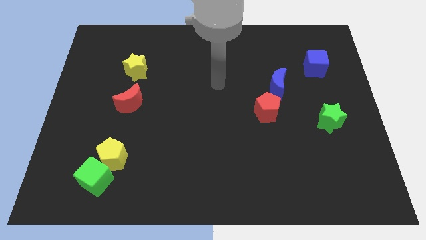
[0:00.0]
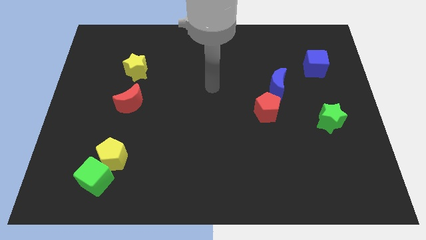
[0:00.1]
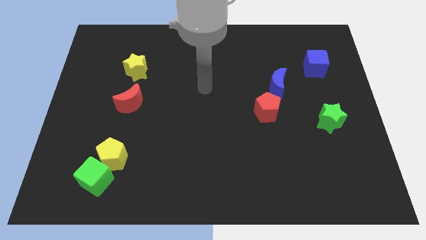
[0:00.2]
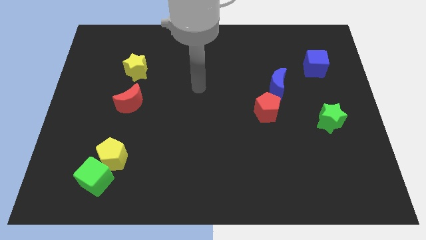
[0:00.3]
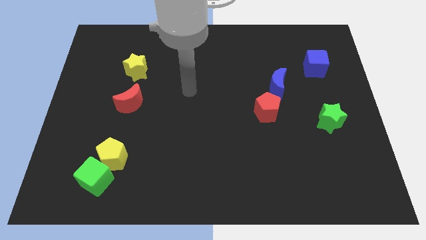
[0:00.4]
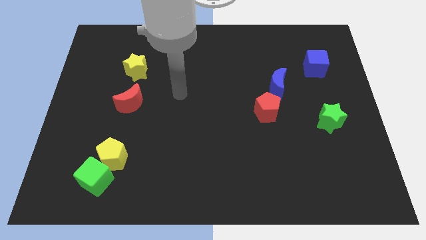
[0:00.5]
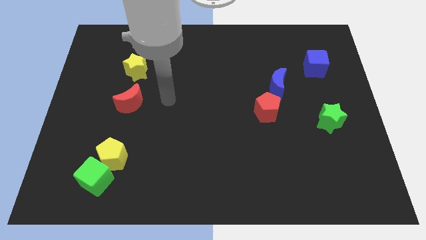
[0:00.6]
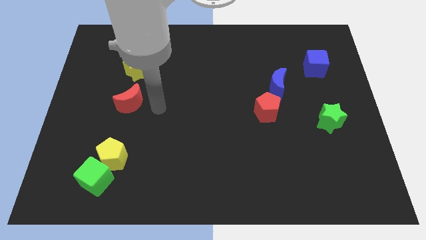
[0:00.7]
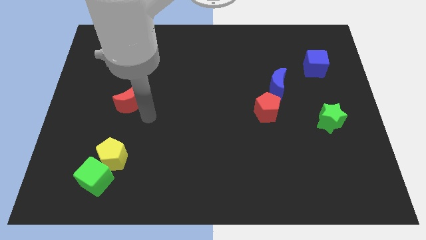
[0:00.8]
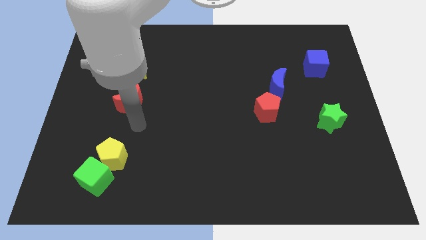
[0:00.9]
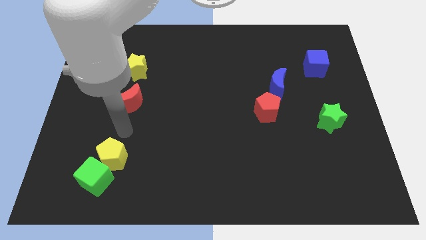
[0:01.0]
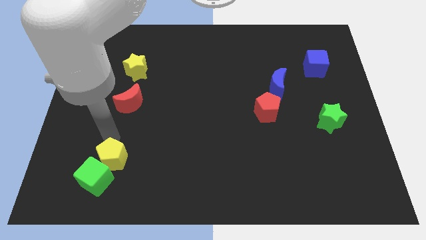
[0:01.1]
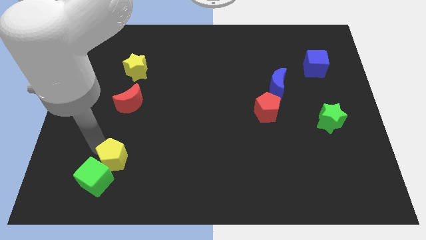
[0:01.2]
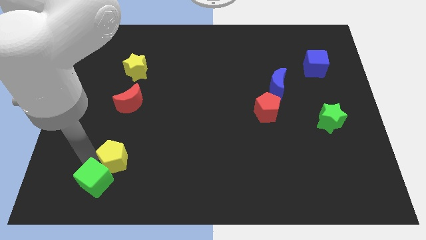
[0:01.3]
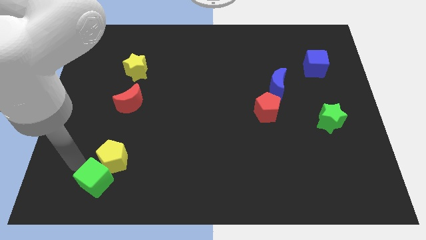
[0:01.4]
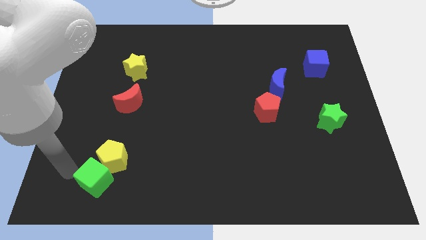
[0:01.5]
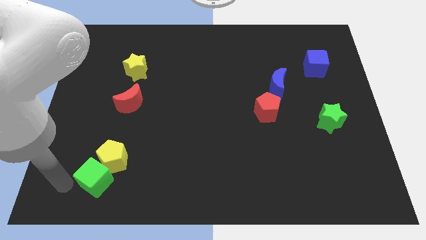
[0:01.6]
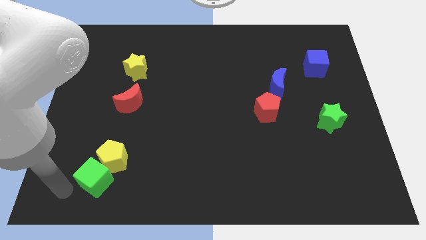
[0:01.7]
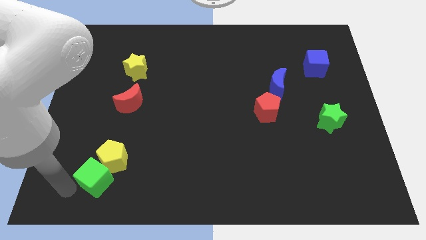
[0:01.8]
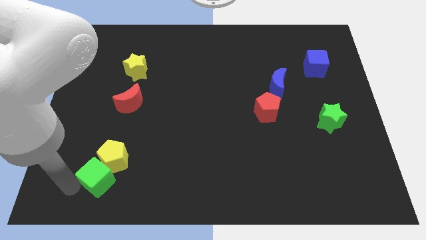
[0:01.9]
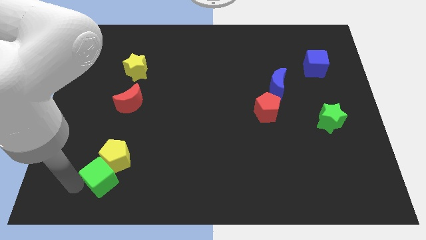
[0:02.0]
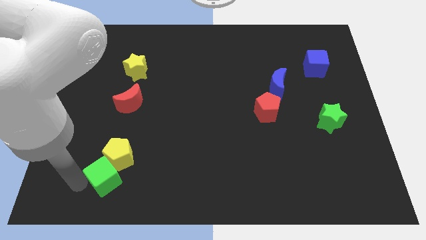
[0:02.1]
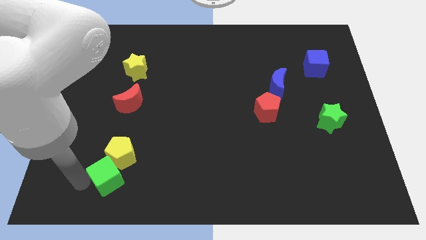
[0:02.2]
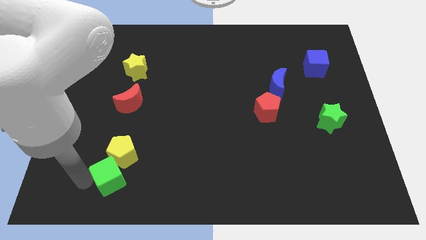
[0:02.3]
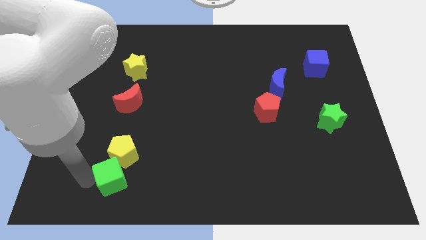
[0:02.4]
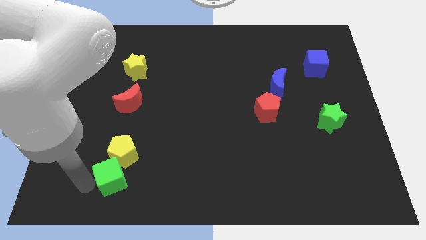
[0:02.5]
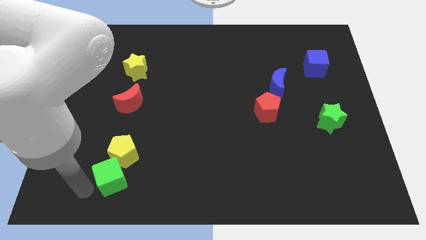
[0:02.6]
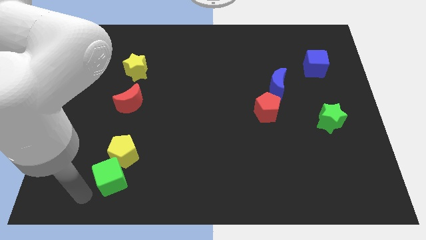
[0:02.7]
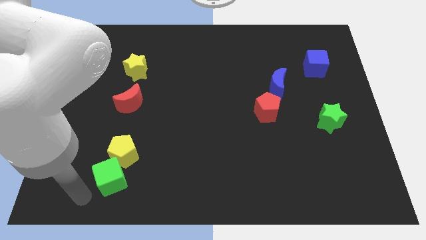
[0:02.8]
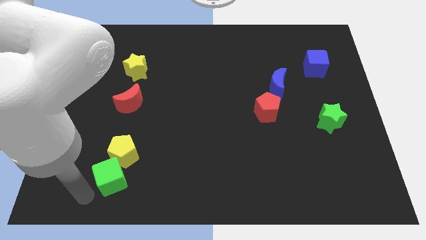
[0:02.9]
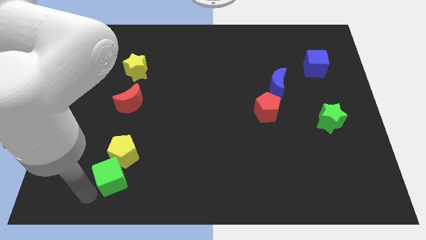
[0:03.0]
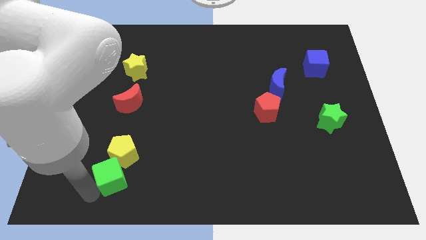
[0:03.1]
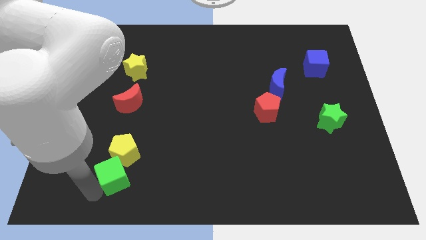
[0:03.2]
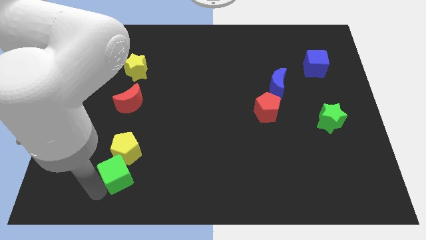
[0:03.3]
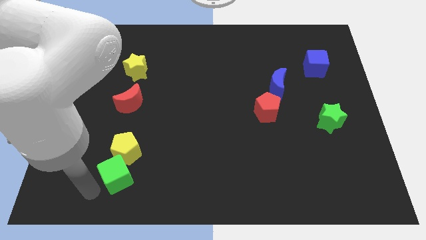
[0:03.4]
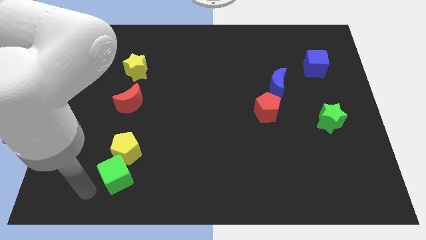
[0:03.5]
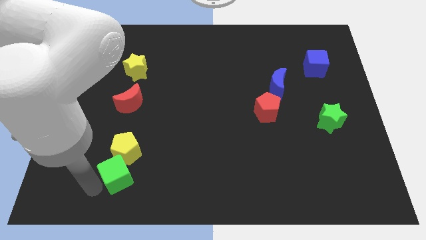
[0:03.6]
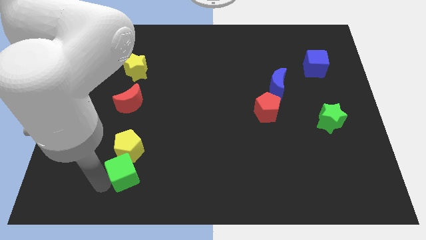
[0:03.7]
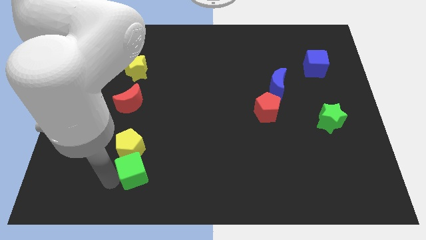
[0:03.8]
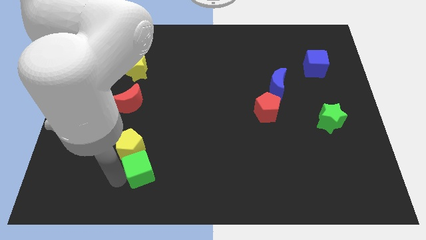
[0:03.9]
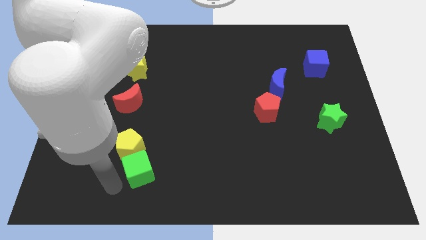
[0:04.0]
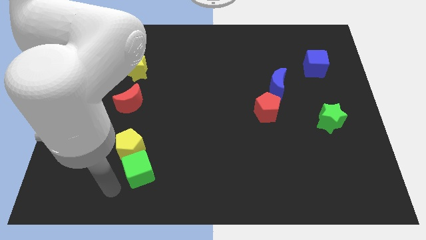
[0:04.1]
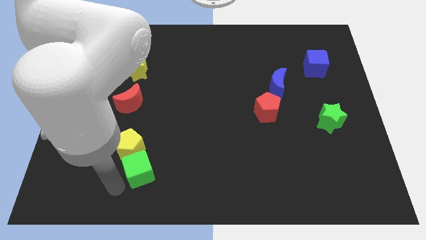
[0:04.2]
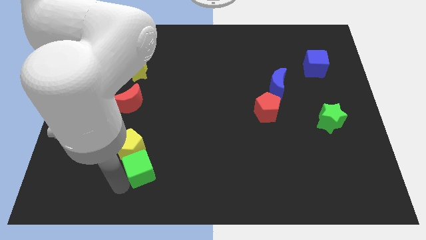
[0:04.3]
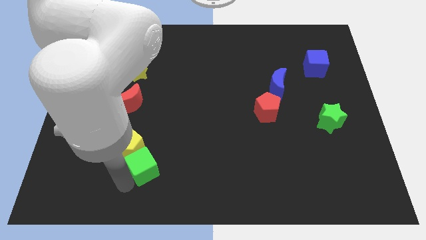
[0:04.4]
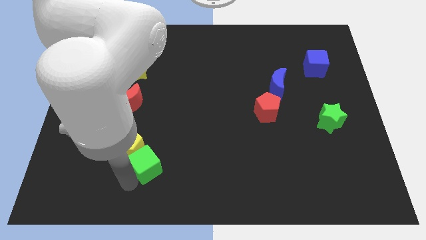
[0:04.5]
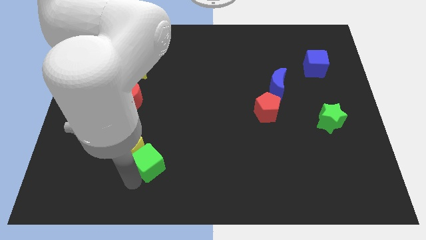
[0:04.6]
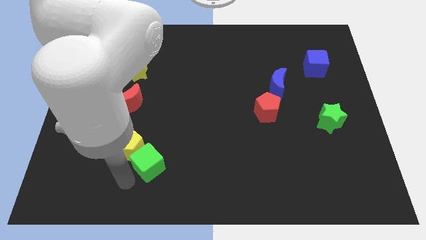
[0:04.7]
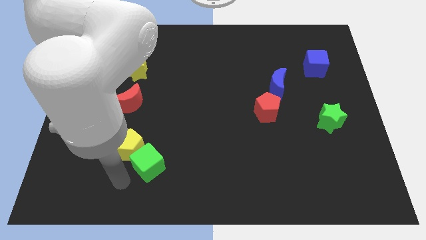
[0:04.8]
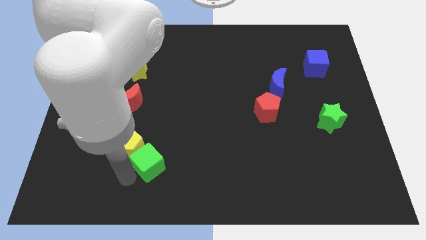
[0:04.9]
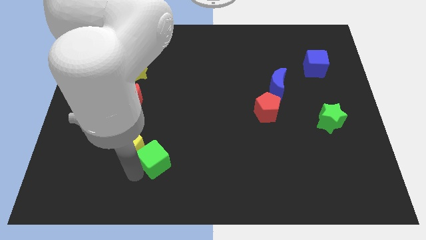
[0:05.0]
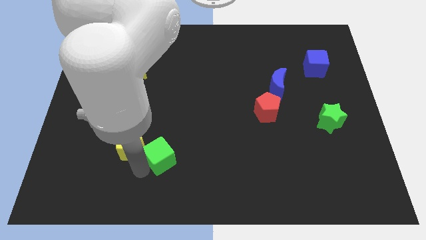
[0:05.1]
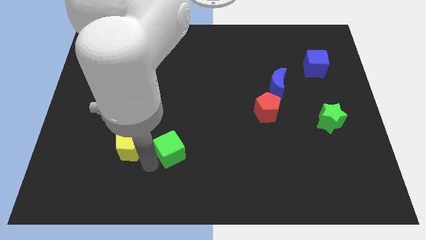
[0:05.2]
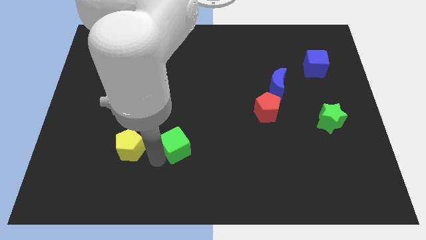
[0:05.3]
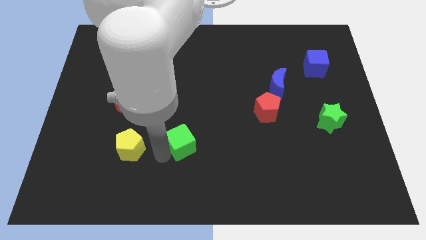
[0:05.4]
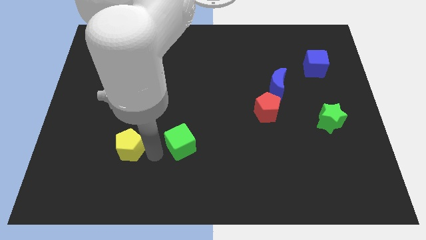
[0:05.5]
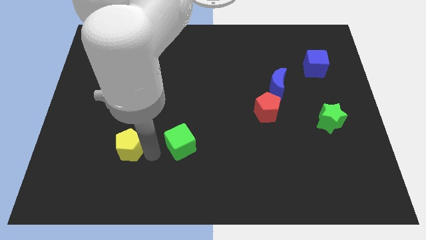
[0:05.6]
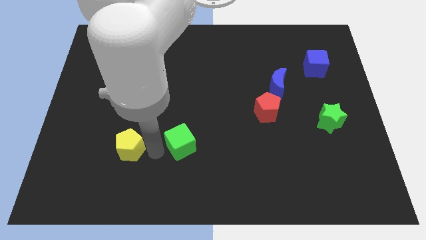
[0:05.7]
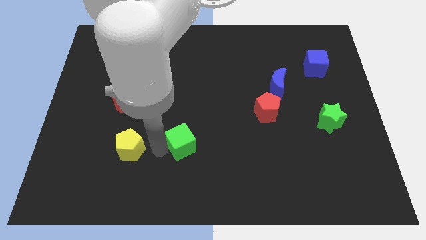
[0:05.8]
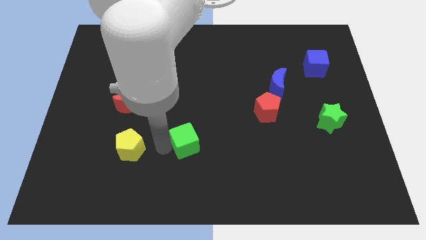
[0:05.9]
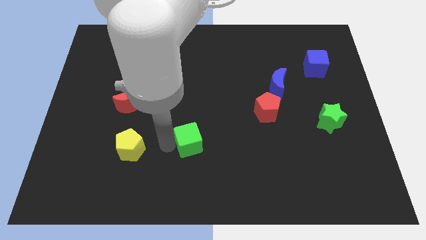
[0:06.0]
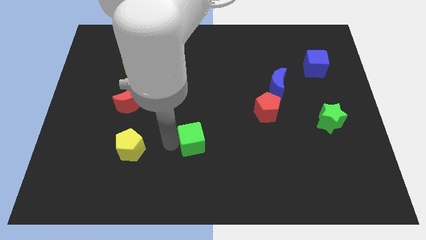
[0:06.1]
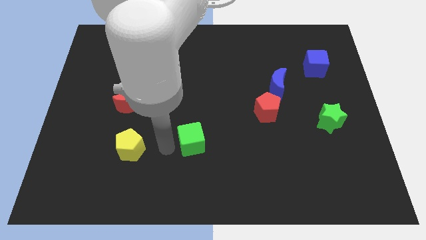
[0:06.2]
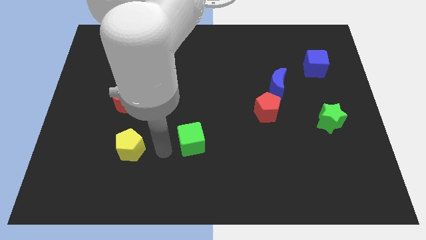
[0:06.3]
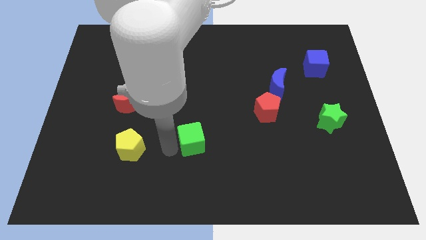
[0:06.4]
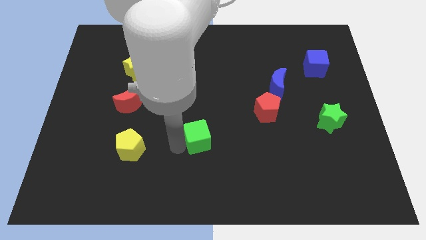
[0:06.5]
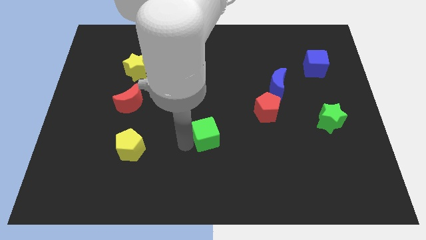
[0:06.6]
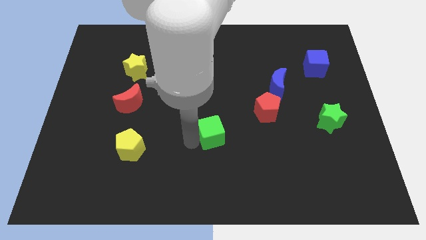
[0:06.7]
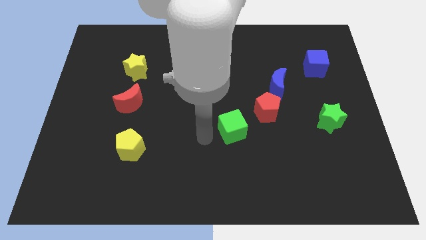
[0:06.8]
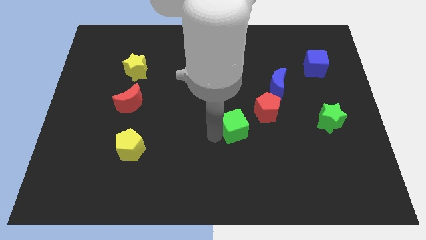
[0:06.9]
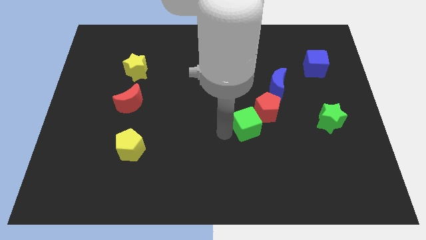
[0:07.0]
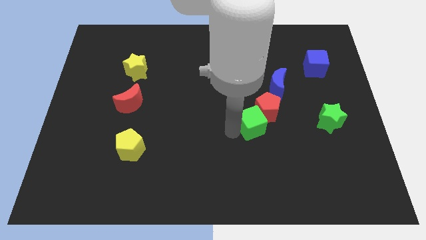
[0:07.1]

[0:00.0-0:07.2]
slide the green cube next to the red pentagon
